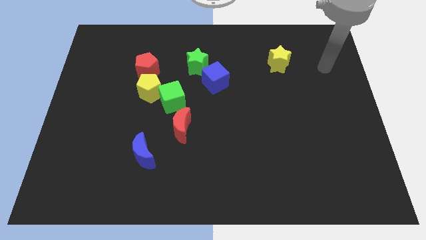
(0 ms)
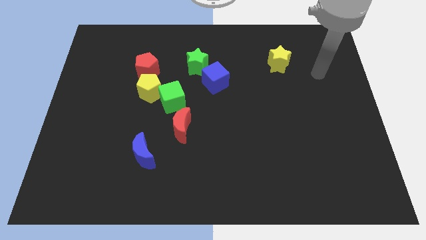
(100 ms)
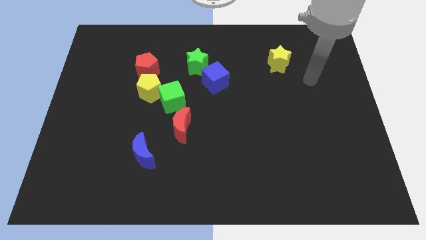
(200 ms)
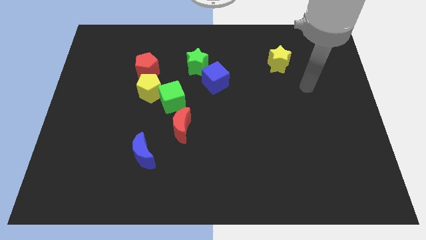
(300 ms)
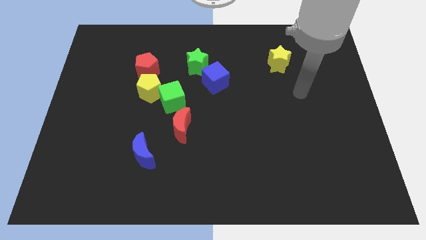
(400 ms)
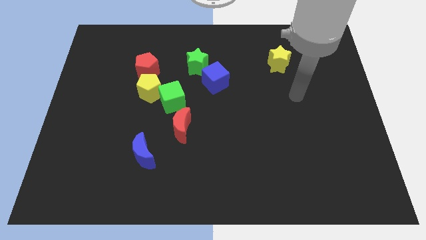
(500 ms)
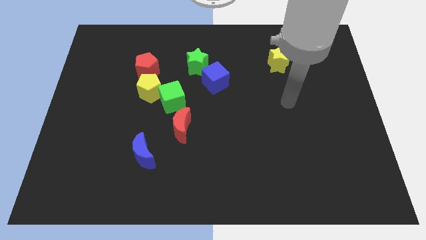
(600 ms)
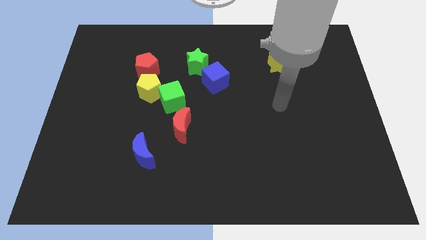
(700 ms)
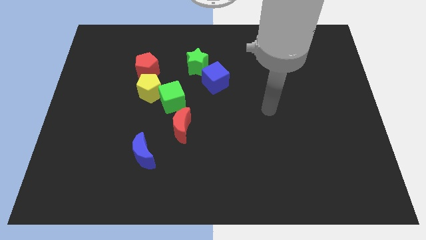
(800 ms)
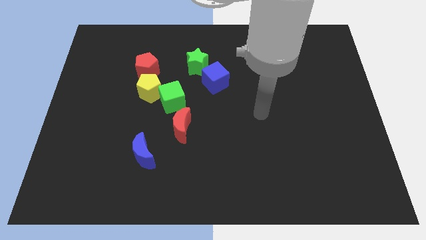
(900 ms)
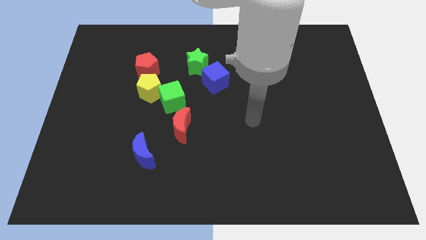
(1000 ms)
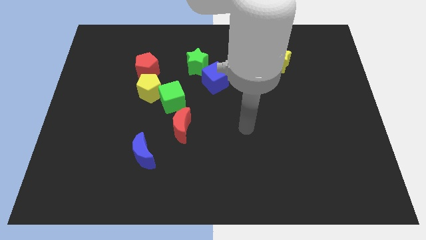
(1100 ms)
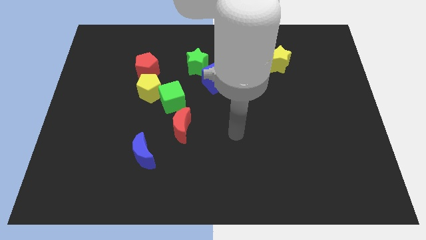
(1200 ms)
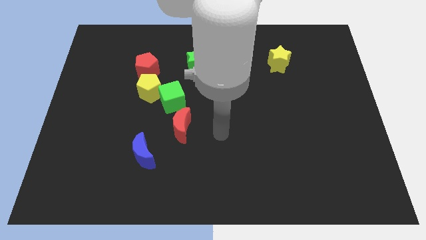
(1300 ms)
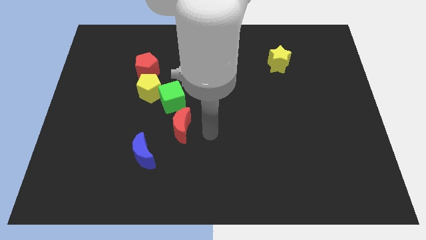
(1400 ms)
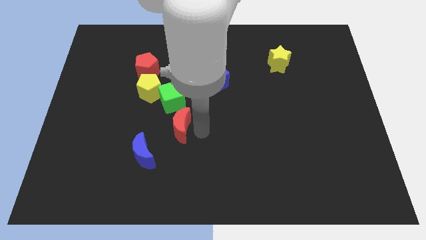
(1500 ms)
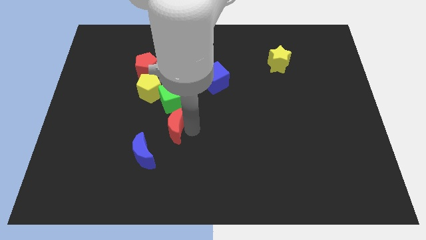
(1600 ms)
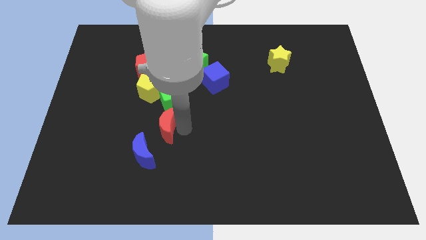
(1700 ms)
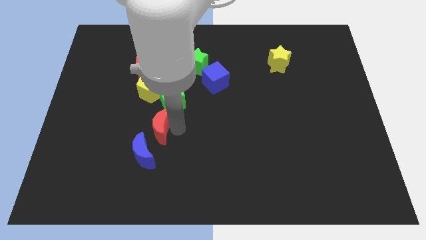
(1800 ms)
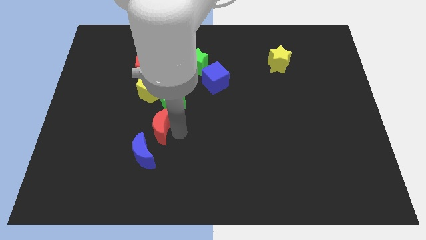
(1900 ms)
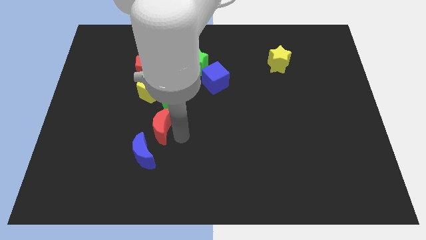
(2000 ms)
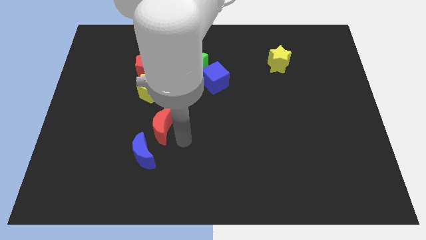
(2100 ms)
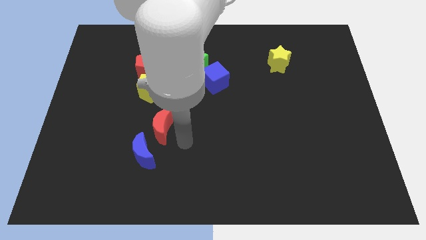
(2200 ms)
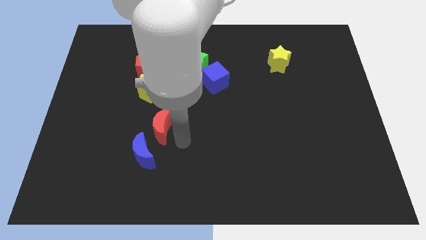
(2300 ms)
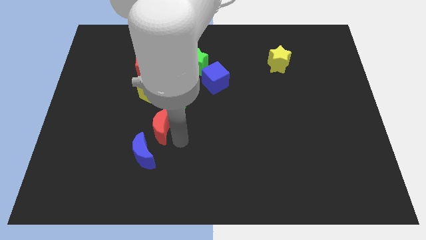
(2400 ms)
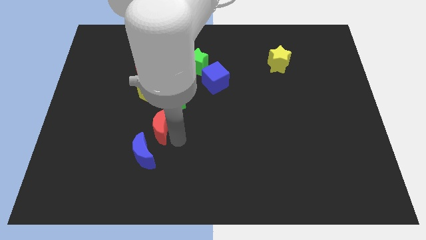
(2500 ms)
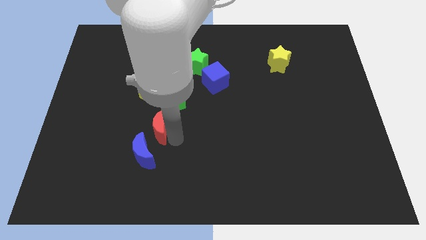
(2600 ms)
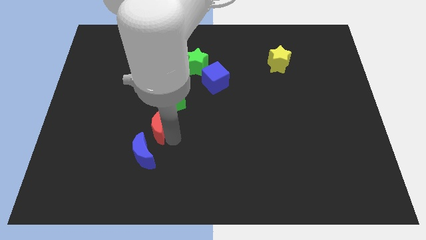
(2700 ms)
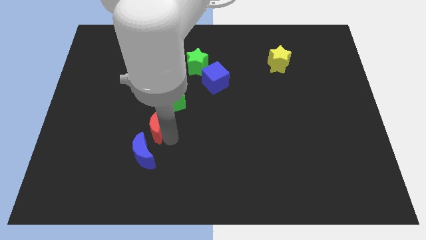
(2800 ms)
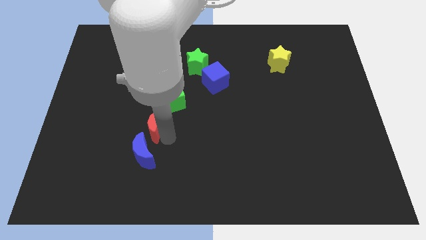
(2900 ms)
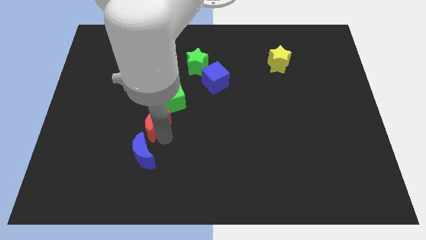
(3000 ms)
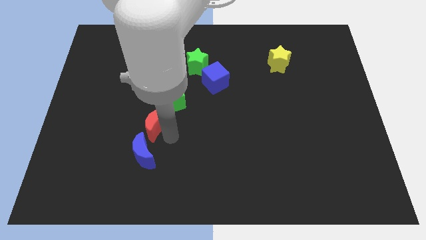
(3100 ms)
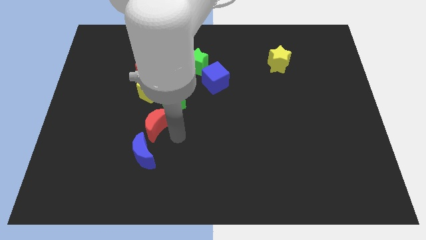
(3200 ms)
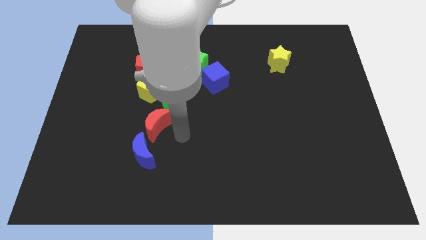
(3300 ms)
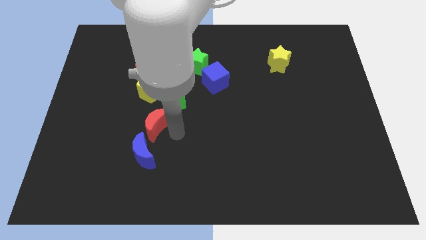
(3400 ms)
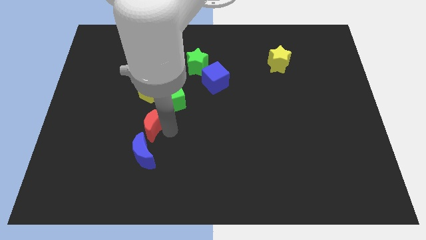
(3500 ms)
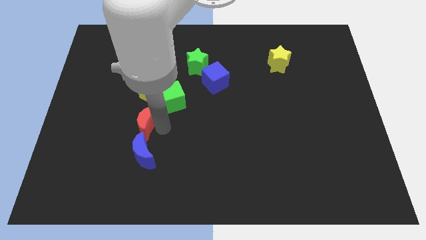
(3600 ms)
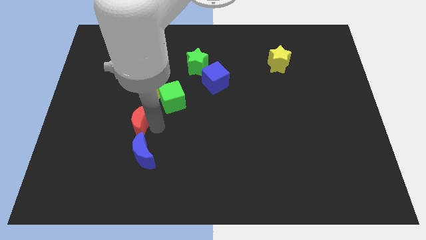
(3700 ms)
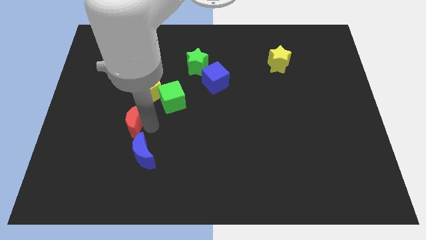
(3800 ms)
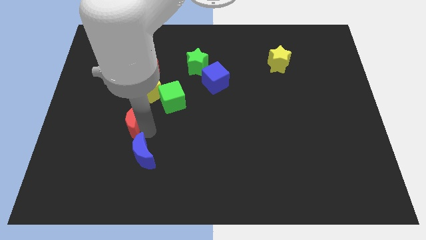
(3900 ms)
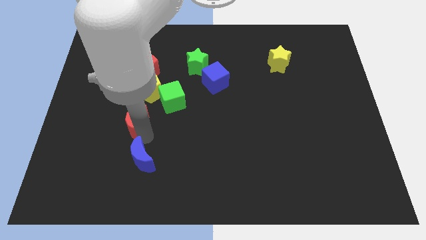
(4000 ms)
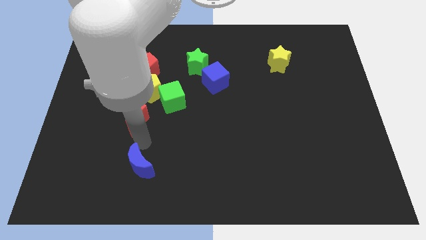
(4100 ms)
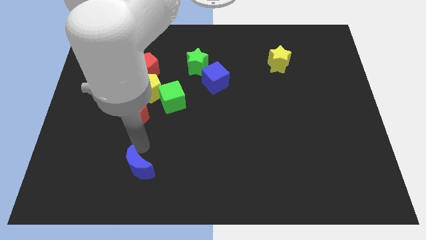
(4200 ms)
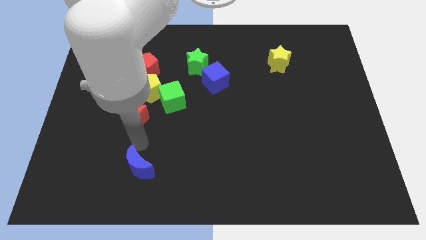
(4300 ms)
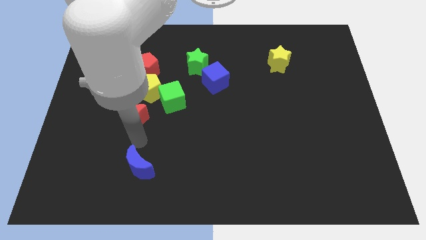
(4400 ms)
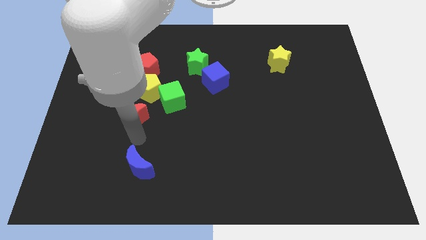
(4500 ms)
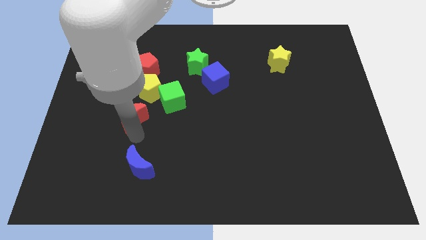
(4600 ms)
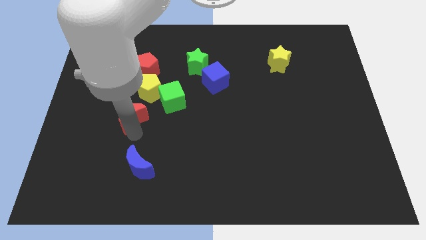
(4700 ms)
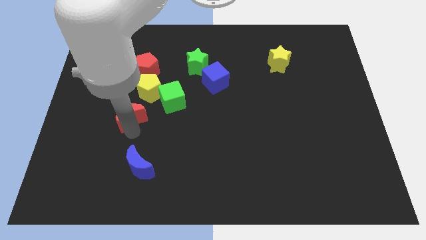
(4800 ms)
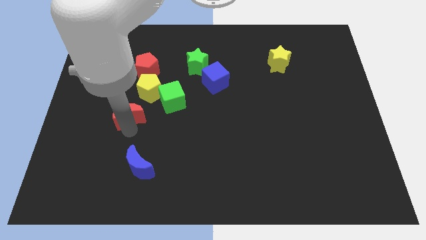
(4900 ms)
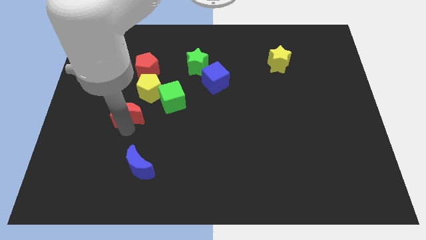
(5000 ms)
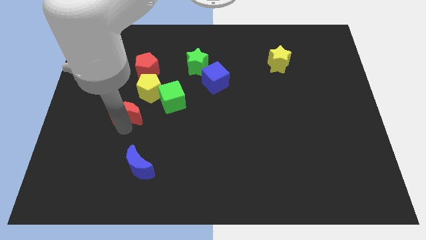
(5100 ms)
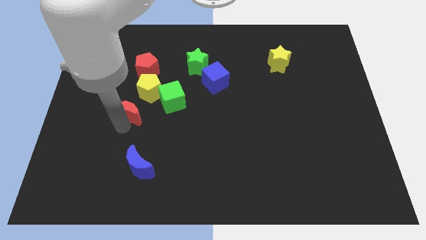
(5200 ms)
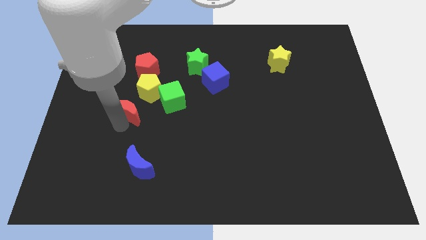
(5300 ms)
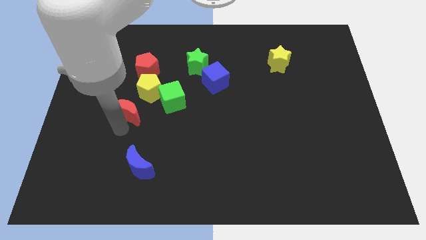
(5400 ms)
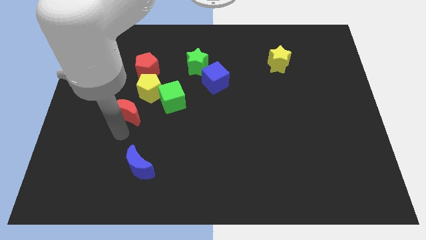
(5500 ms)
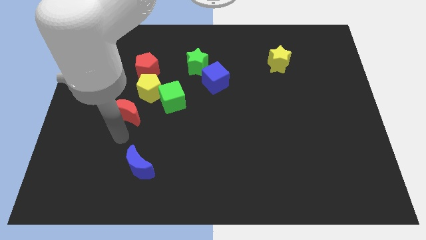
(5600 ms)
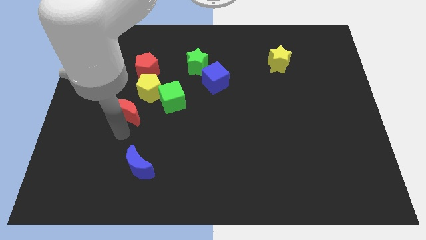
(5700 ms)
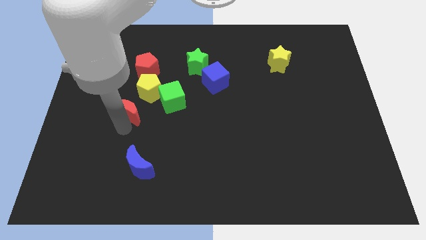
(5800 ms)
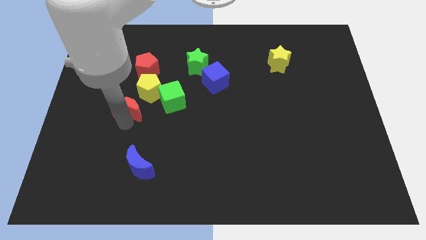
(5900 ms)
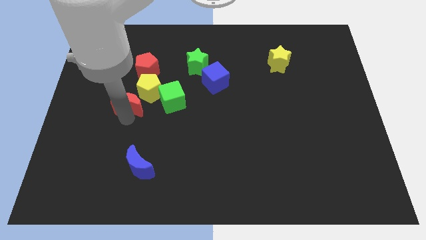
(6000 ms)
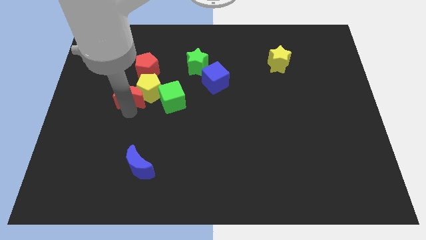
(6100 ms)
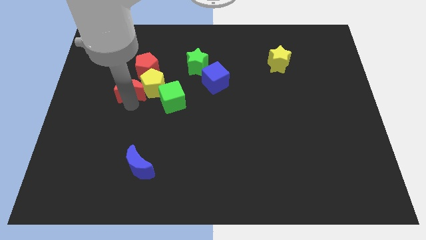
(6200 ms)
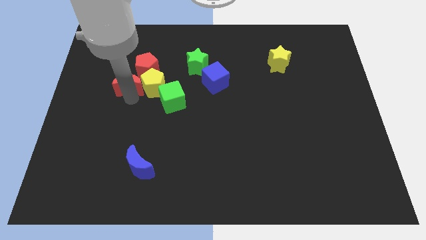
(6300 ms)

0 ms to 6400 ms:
push the red moon diagonally up and to the left of the yellow pentagon

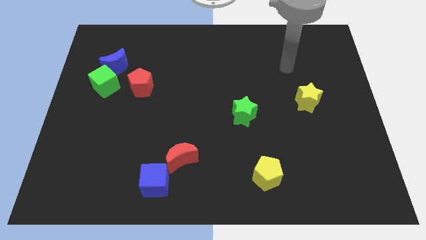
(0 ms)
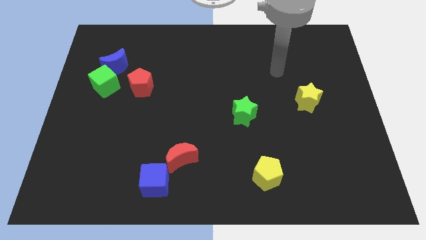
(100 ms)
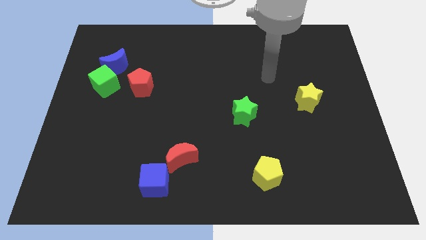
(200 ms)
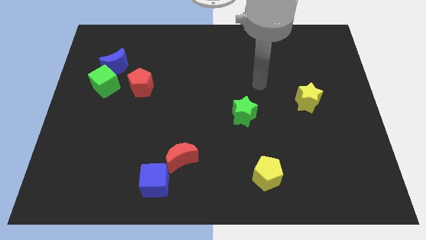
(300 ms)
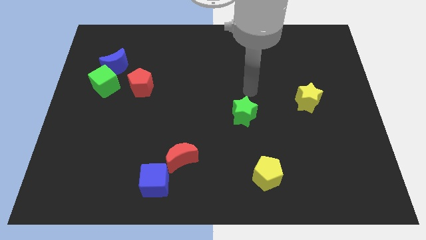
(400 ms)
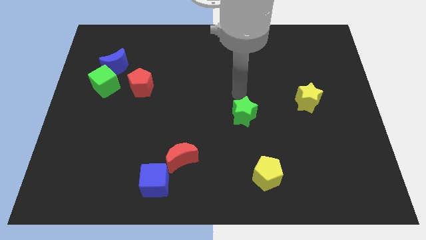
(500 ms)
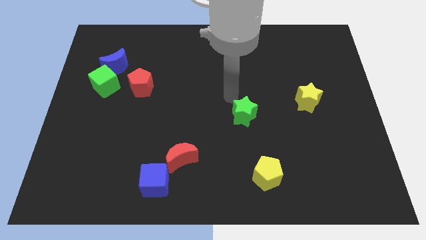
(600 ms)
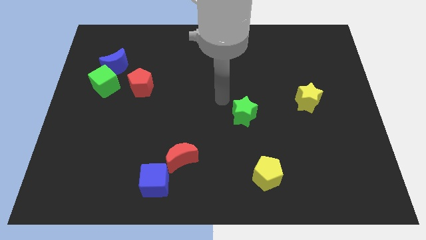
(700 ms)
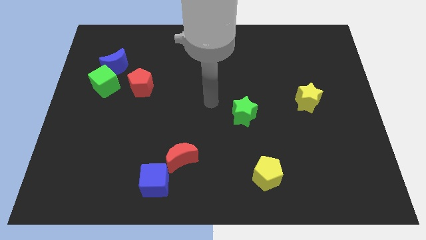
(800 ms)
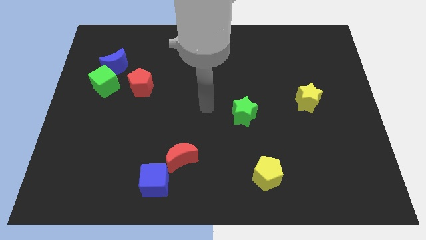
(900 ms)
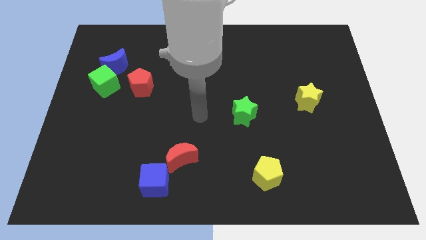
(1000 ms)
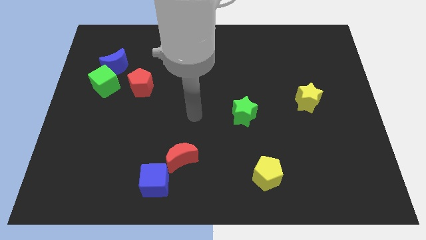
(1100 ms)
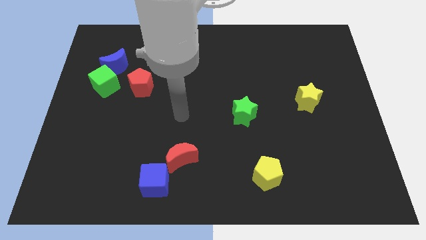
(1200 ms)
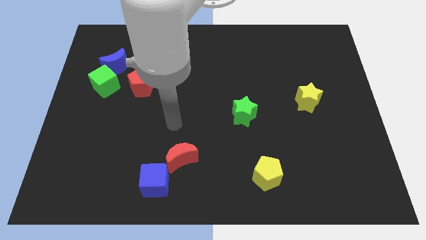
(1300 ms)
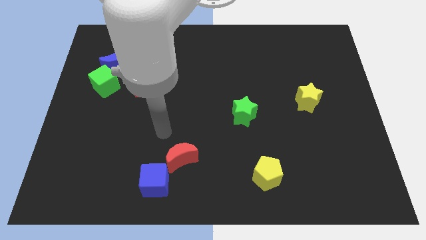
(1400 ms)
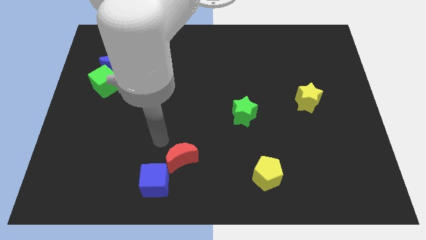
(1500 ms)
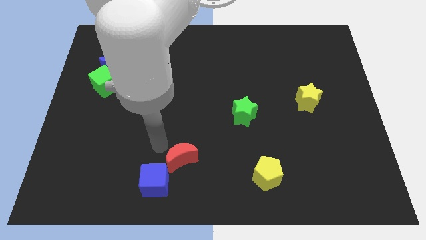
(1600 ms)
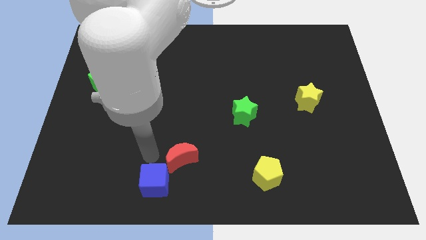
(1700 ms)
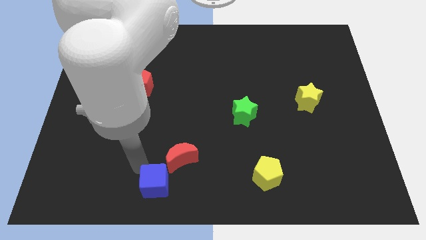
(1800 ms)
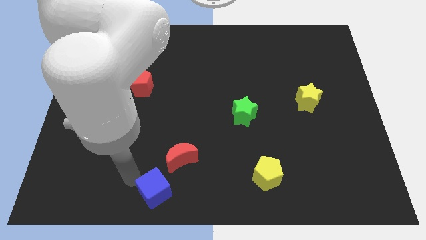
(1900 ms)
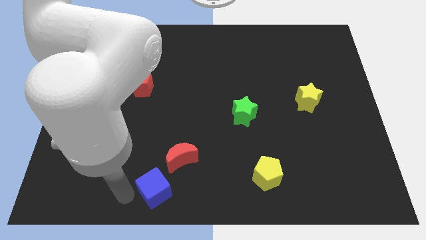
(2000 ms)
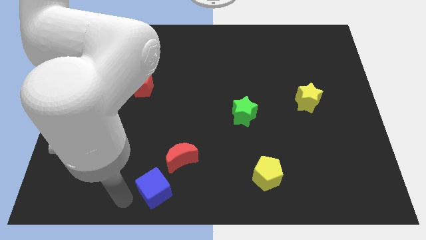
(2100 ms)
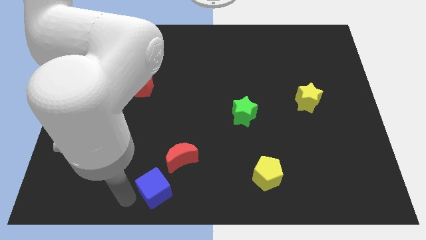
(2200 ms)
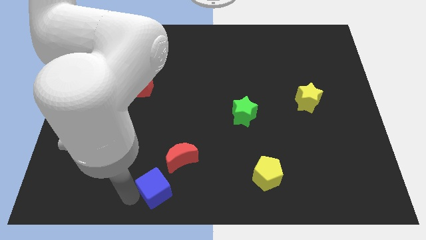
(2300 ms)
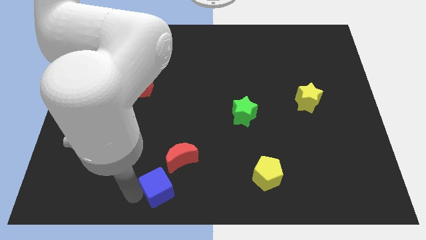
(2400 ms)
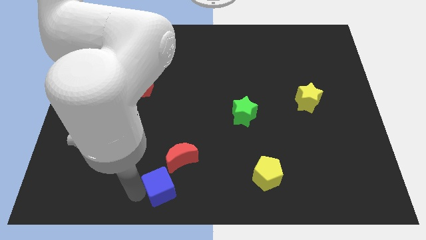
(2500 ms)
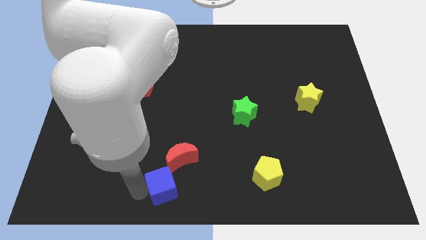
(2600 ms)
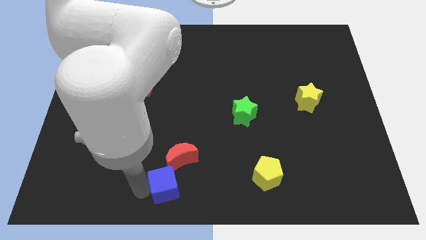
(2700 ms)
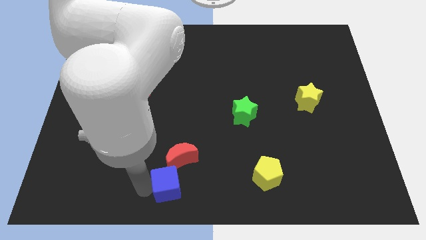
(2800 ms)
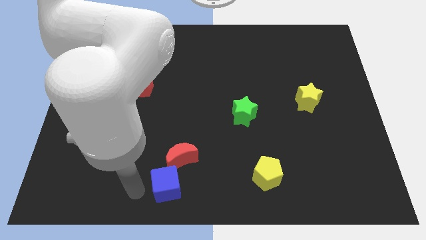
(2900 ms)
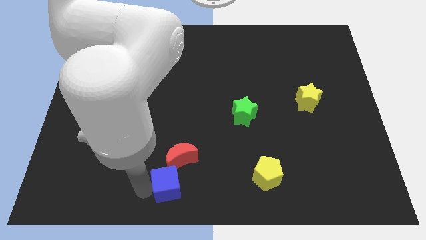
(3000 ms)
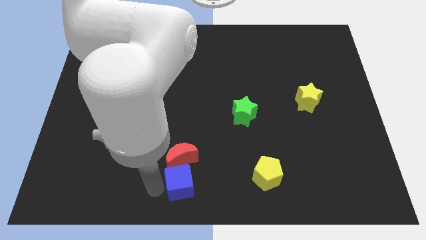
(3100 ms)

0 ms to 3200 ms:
slide the blue cube to the bottom right of the red moon
